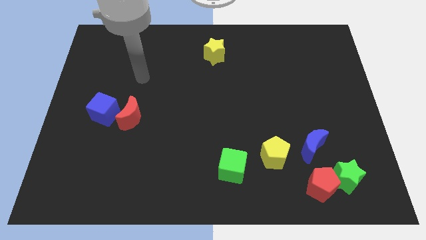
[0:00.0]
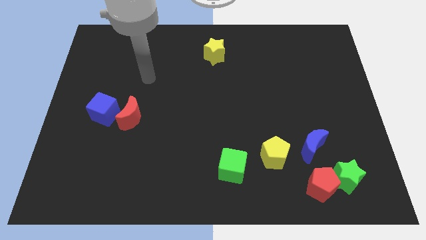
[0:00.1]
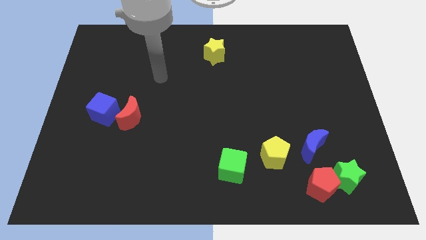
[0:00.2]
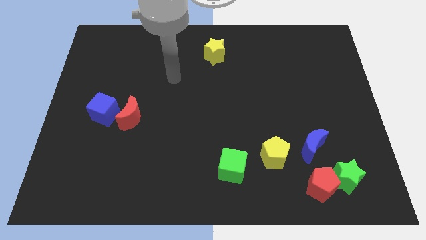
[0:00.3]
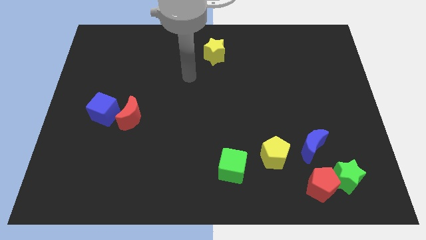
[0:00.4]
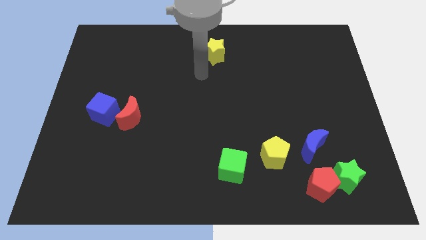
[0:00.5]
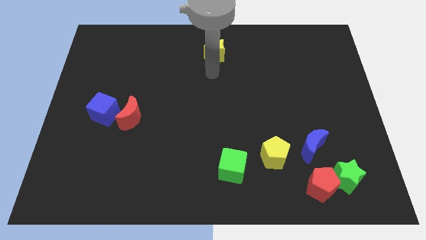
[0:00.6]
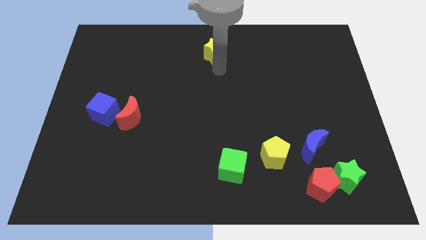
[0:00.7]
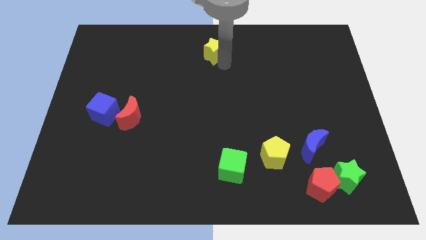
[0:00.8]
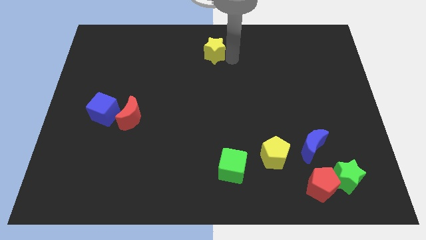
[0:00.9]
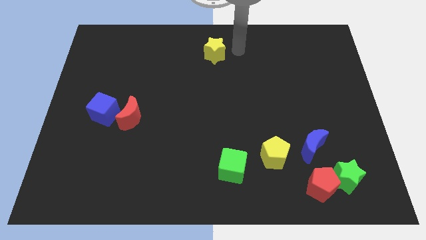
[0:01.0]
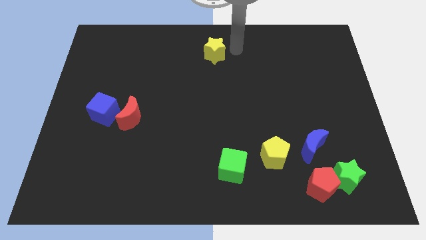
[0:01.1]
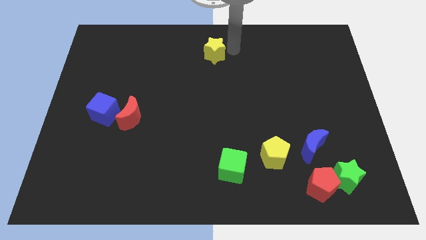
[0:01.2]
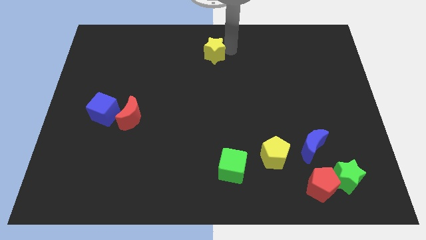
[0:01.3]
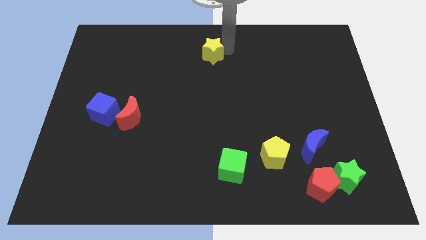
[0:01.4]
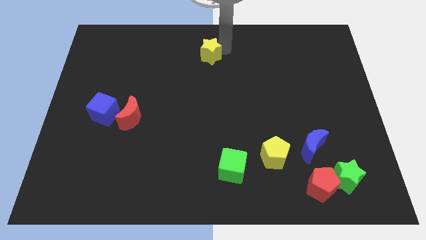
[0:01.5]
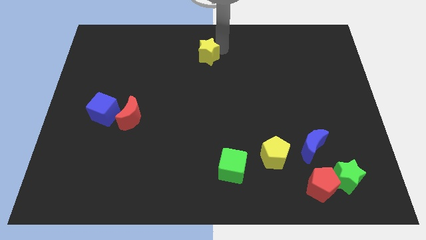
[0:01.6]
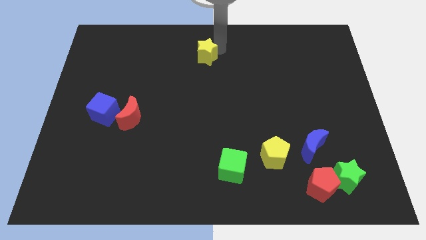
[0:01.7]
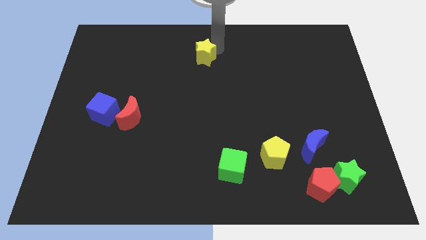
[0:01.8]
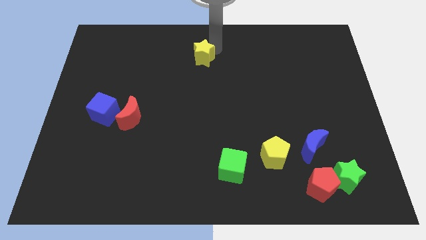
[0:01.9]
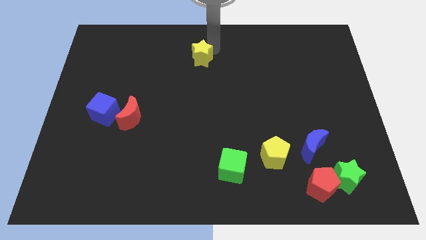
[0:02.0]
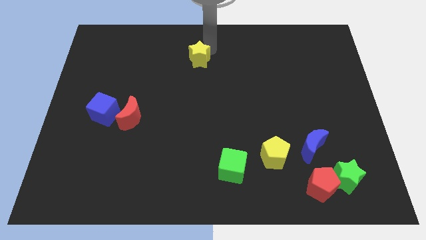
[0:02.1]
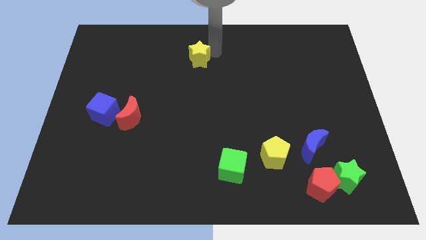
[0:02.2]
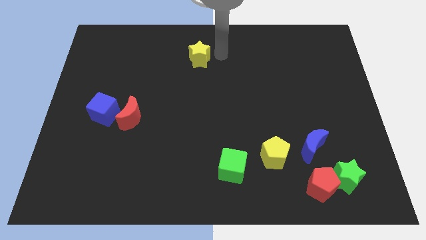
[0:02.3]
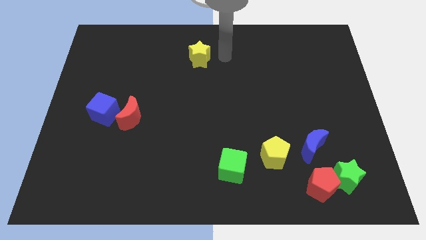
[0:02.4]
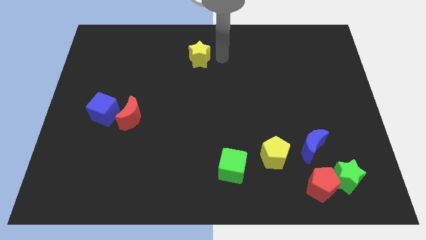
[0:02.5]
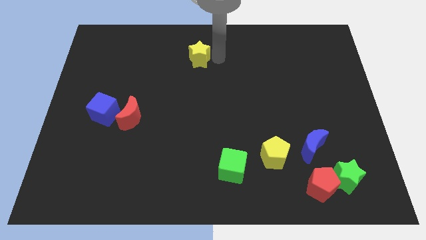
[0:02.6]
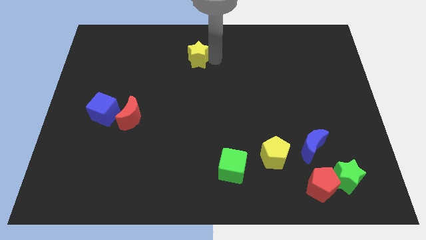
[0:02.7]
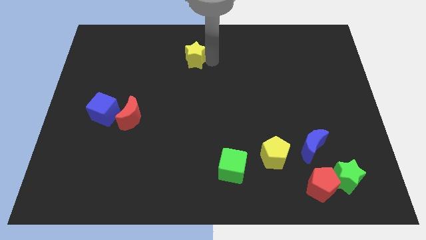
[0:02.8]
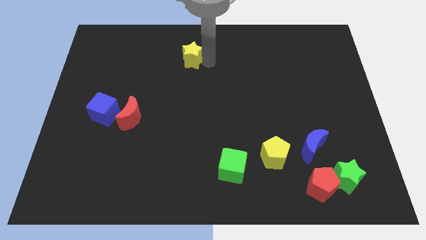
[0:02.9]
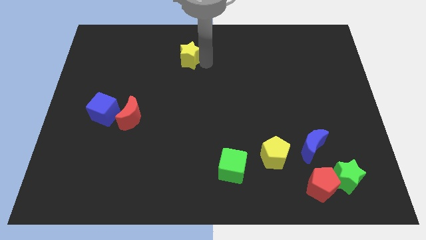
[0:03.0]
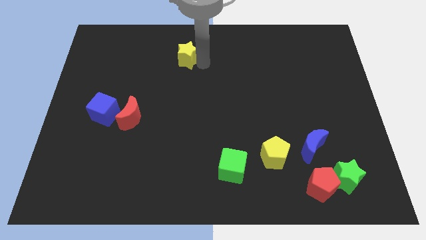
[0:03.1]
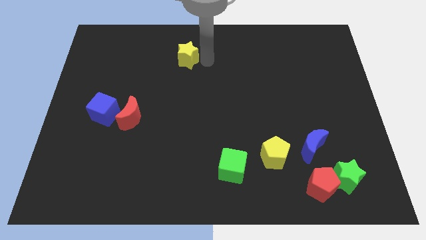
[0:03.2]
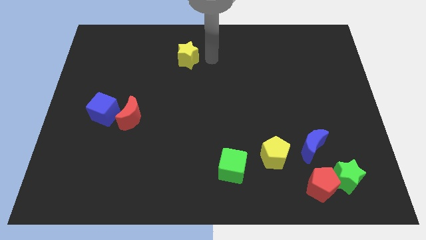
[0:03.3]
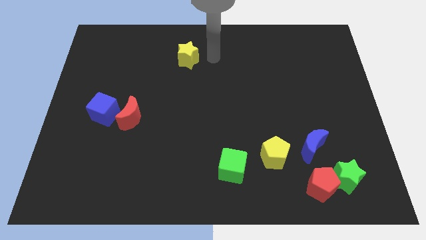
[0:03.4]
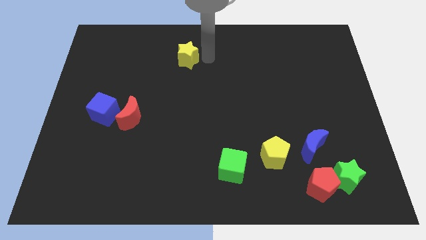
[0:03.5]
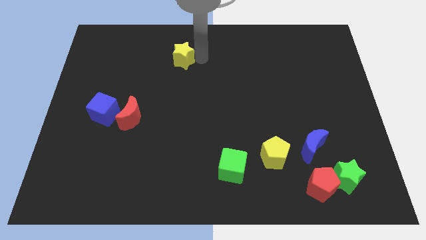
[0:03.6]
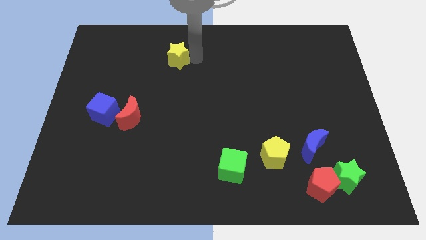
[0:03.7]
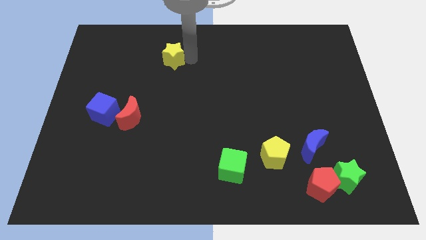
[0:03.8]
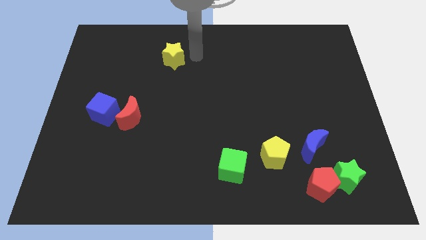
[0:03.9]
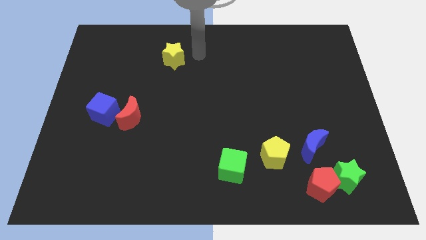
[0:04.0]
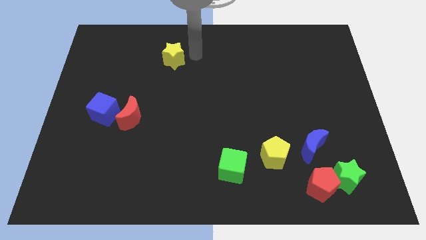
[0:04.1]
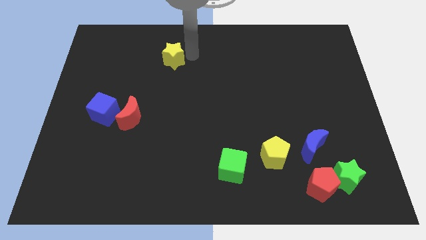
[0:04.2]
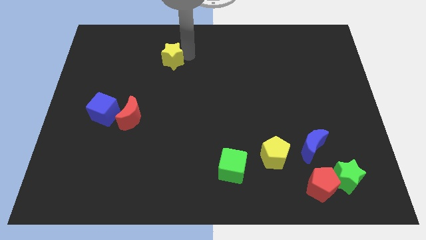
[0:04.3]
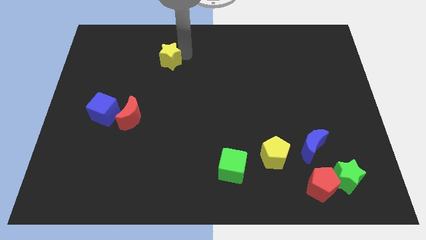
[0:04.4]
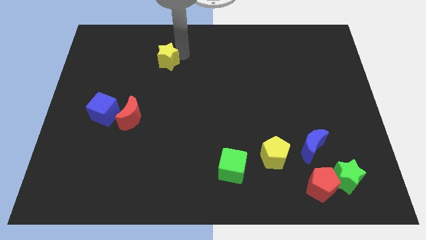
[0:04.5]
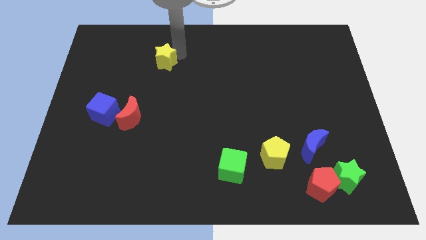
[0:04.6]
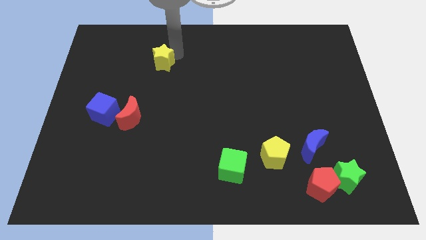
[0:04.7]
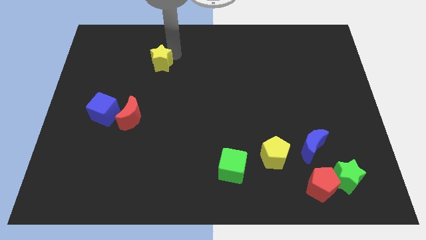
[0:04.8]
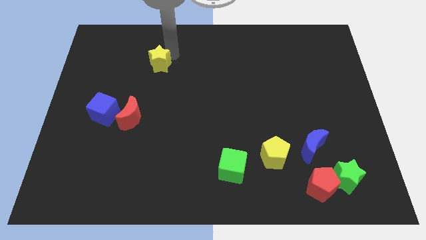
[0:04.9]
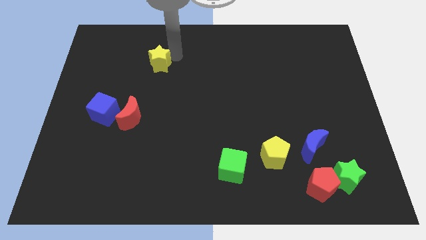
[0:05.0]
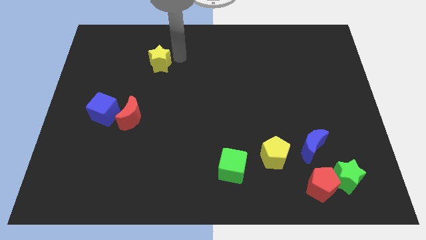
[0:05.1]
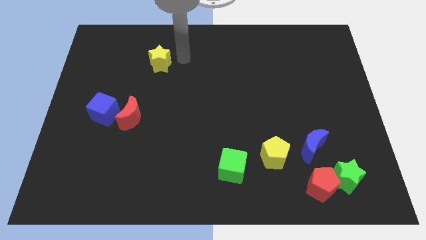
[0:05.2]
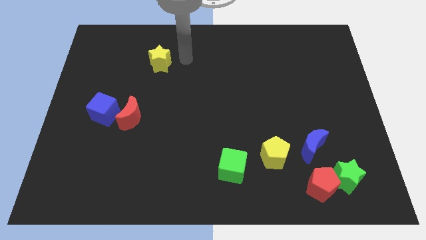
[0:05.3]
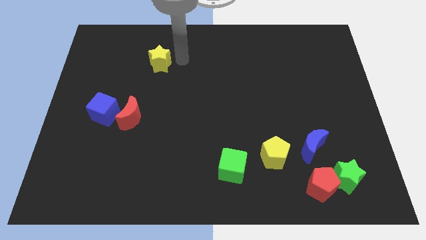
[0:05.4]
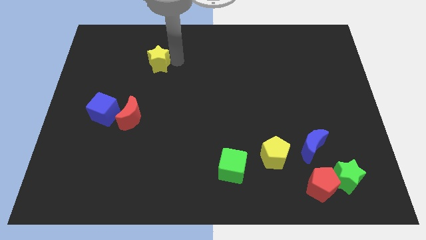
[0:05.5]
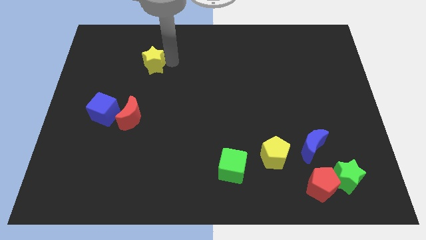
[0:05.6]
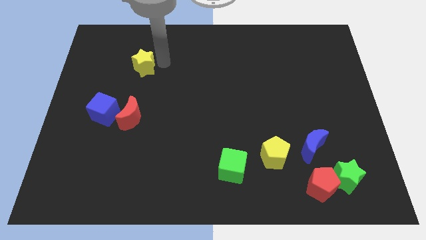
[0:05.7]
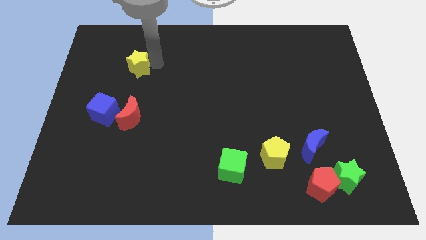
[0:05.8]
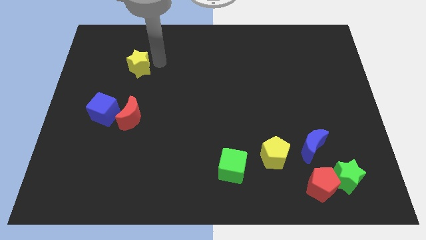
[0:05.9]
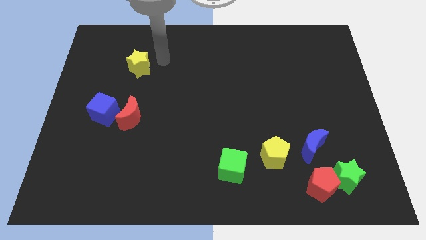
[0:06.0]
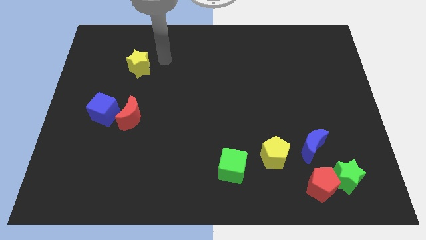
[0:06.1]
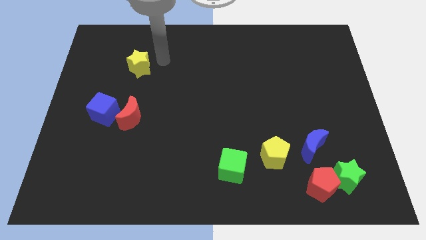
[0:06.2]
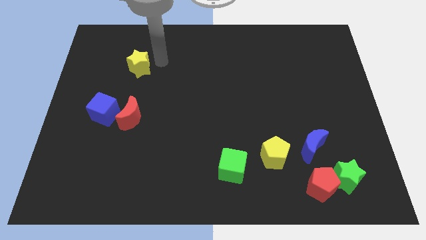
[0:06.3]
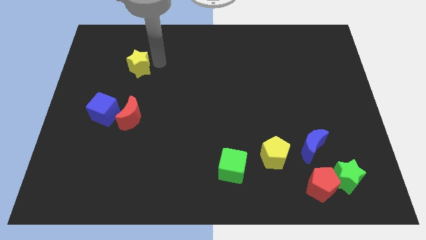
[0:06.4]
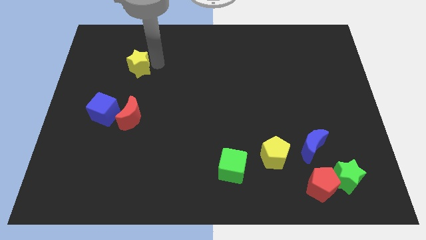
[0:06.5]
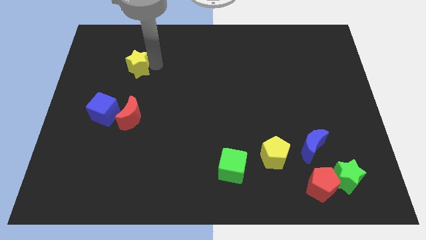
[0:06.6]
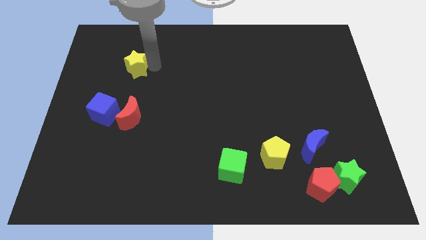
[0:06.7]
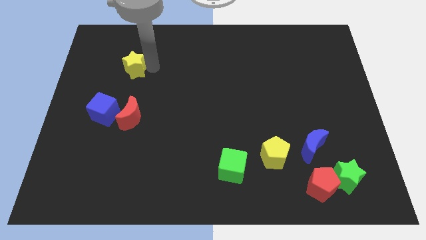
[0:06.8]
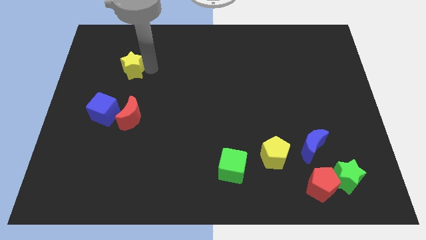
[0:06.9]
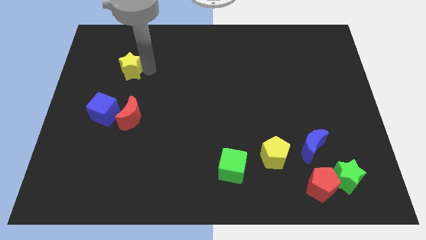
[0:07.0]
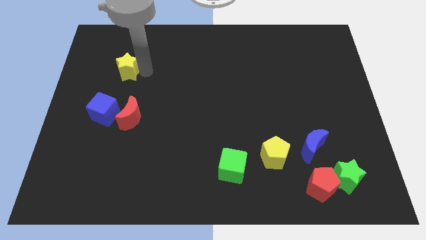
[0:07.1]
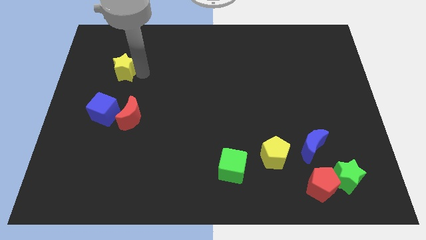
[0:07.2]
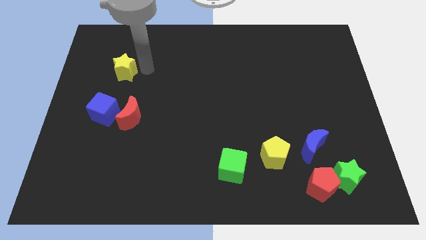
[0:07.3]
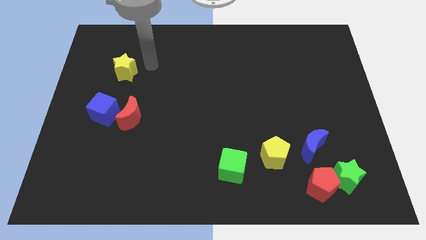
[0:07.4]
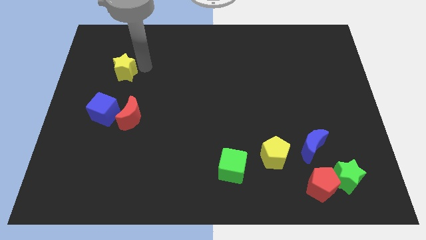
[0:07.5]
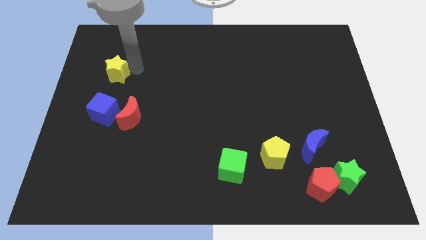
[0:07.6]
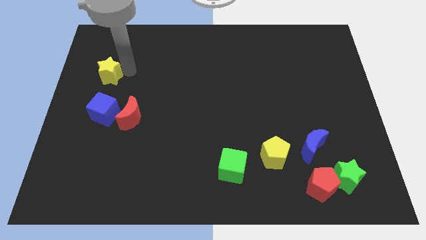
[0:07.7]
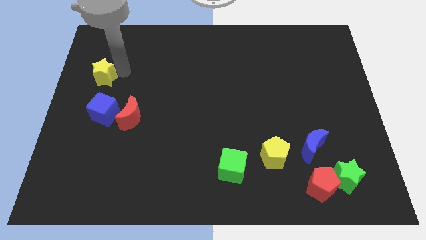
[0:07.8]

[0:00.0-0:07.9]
move the yellow star to the left side of the board
